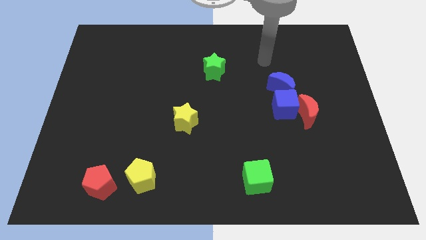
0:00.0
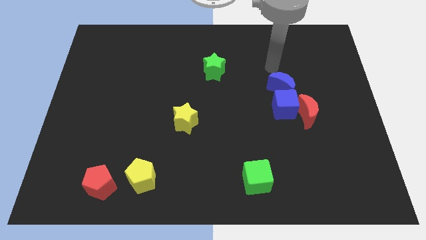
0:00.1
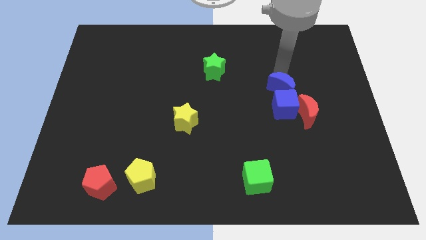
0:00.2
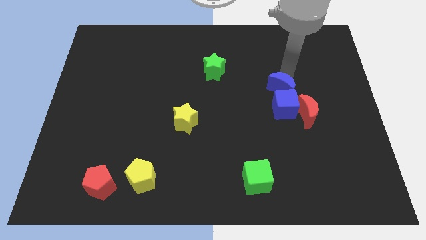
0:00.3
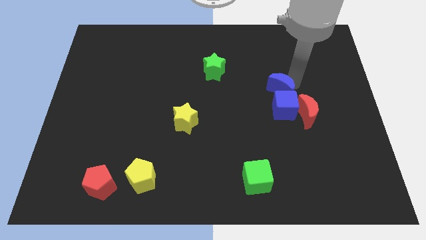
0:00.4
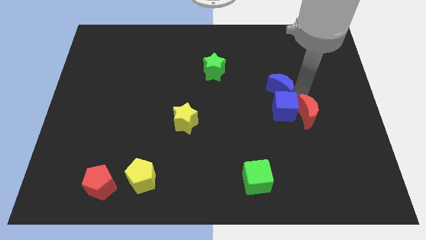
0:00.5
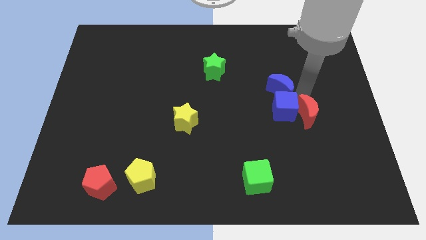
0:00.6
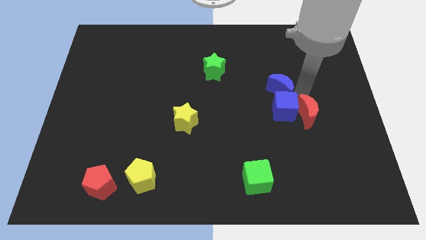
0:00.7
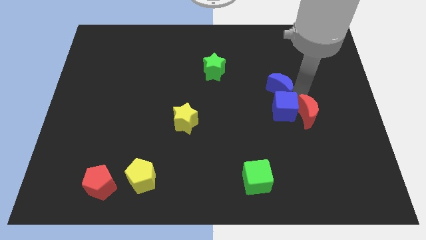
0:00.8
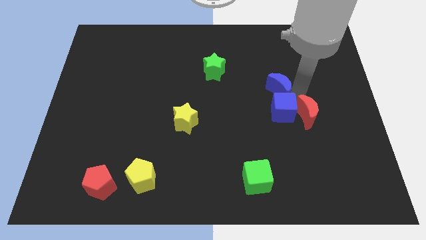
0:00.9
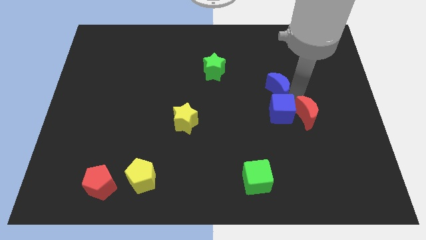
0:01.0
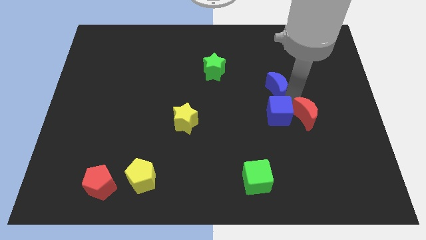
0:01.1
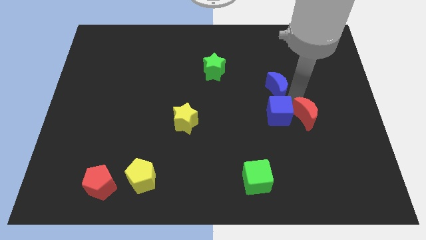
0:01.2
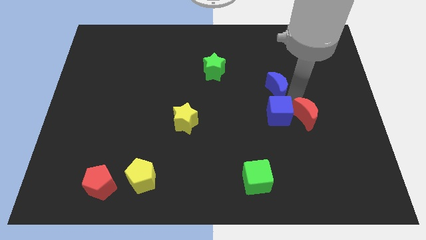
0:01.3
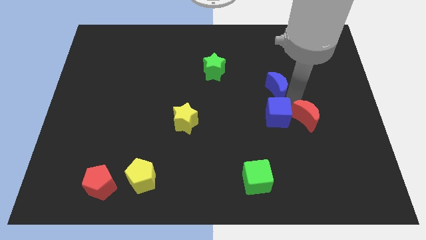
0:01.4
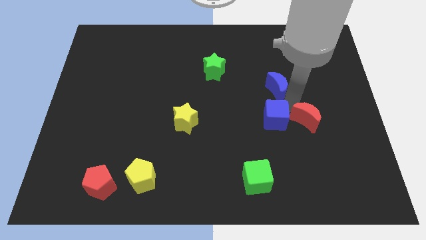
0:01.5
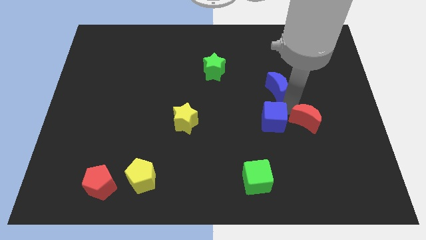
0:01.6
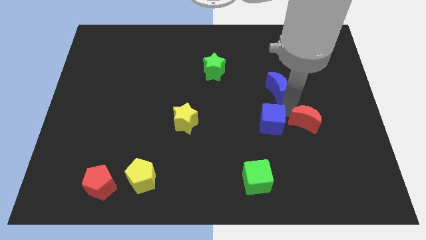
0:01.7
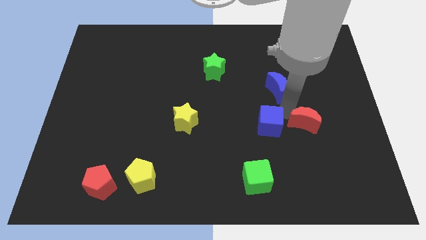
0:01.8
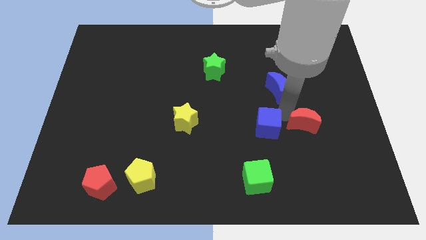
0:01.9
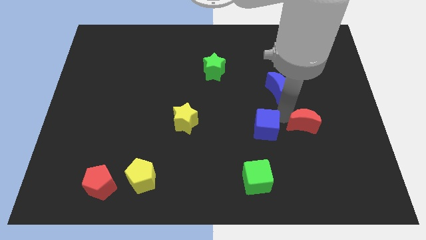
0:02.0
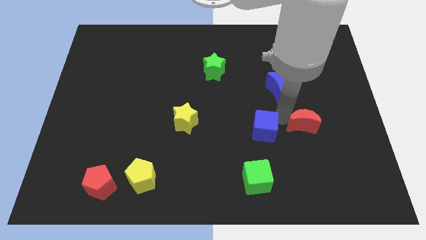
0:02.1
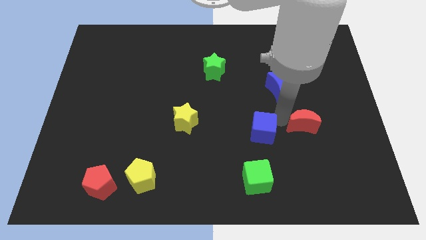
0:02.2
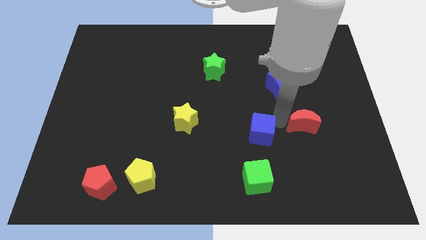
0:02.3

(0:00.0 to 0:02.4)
pull the blue cube apart from the red moon and blue moon

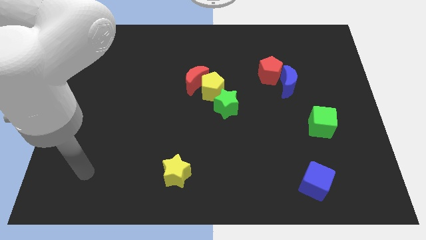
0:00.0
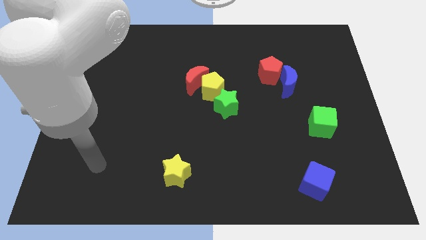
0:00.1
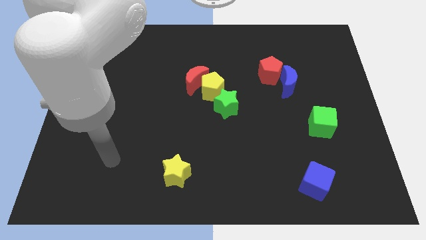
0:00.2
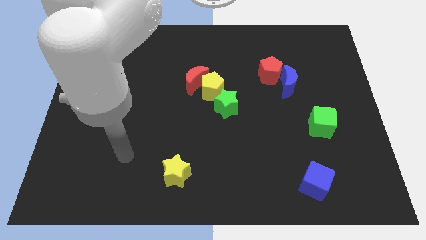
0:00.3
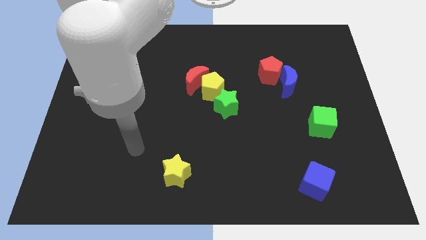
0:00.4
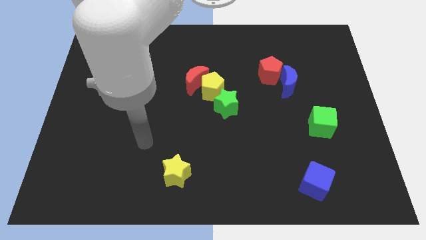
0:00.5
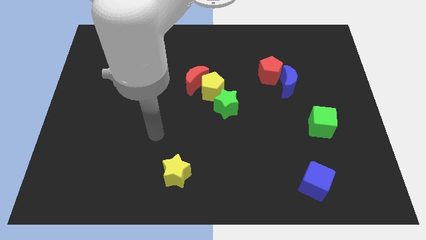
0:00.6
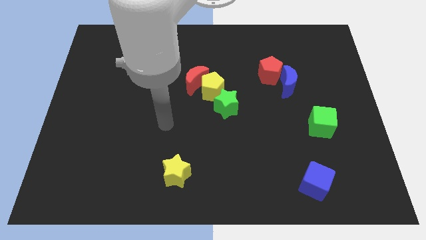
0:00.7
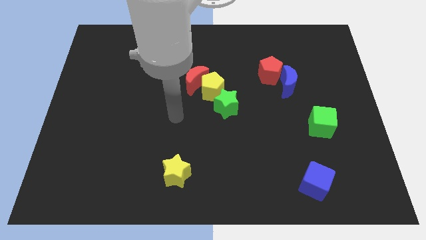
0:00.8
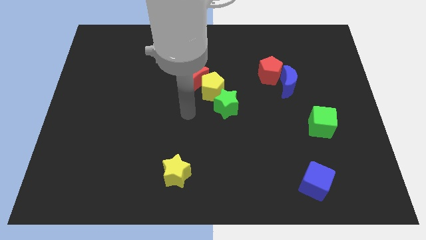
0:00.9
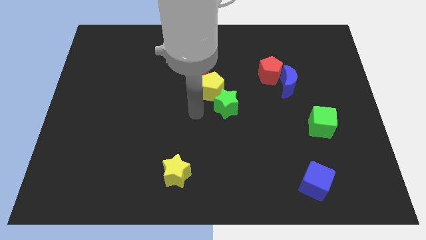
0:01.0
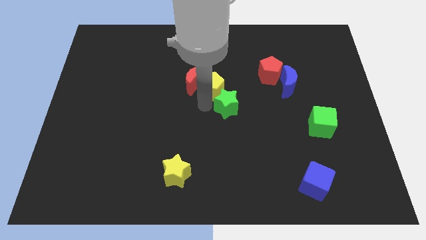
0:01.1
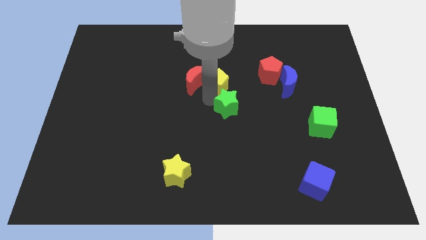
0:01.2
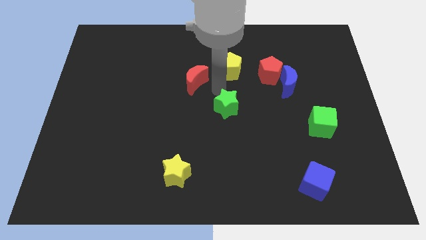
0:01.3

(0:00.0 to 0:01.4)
separate the red moon from the yellow pentagon

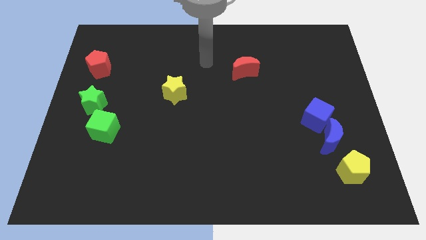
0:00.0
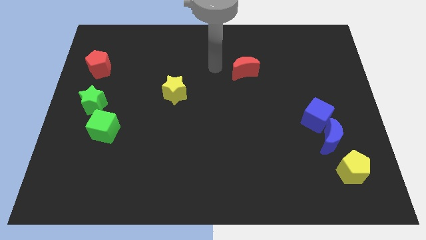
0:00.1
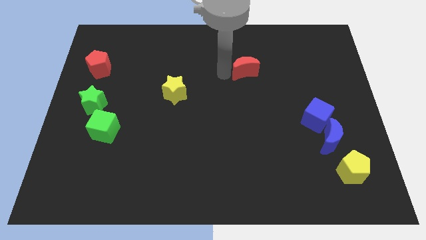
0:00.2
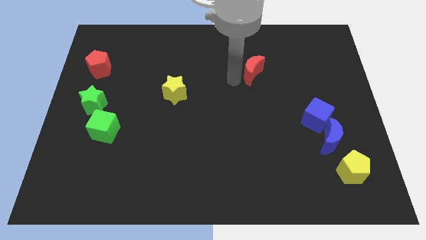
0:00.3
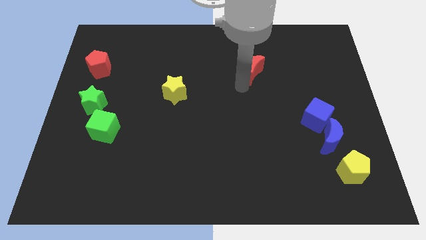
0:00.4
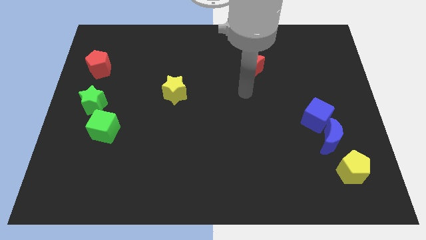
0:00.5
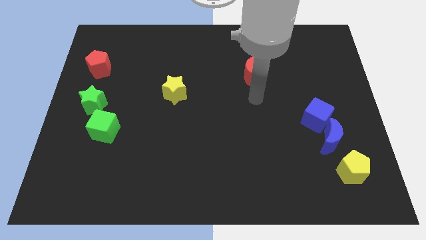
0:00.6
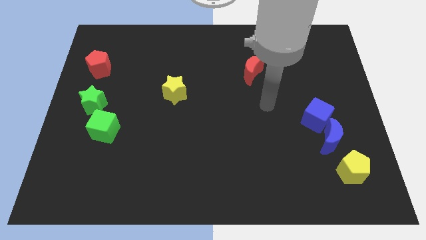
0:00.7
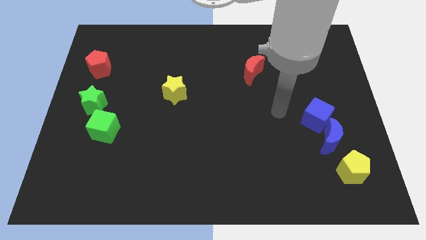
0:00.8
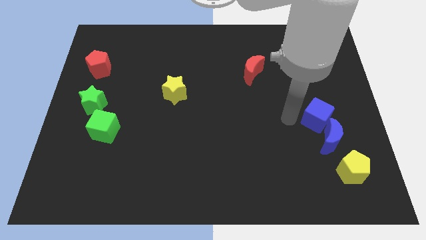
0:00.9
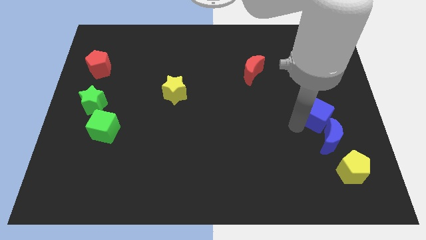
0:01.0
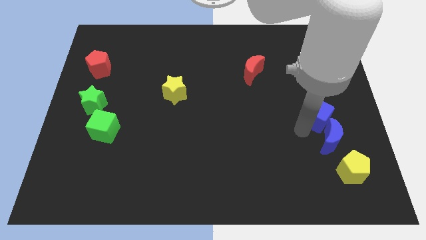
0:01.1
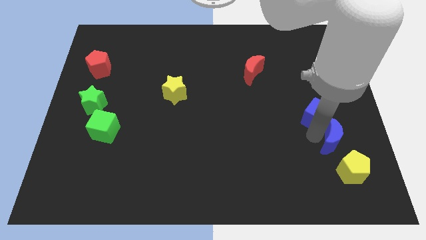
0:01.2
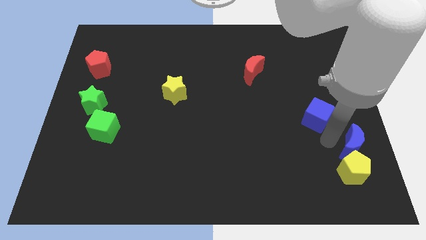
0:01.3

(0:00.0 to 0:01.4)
move the blue cube away from the blue moon

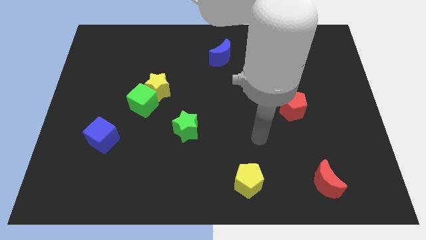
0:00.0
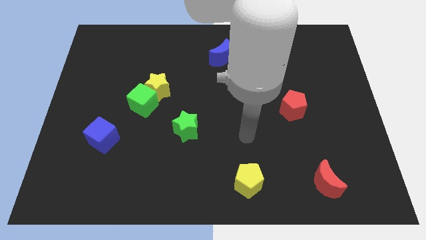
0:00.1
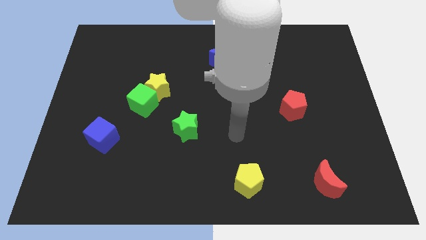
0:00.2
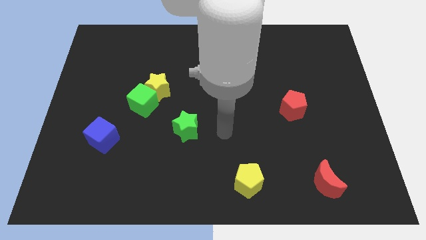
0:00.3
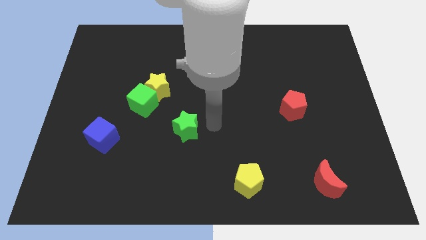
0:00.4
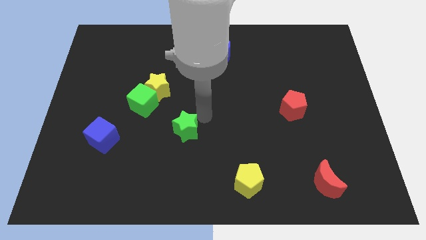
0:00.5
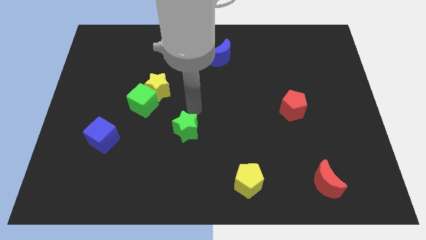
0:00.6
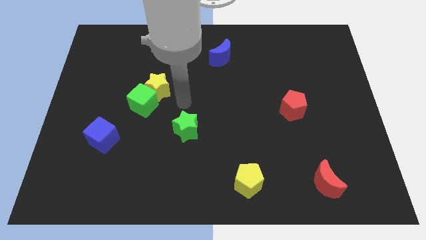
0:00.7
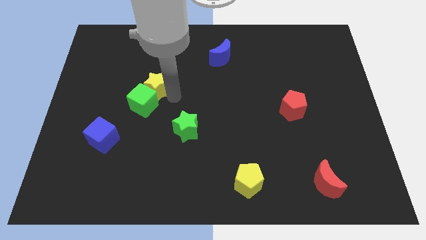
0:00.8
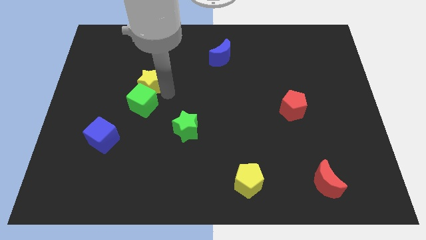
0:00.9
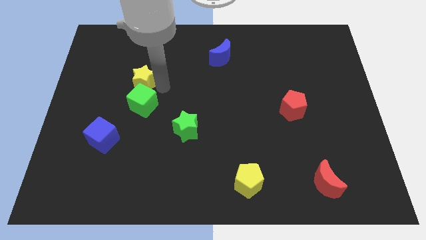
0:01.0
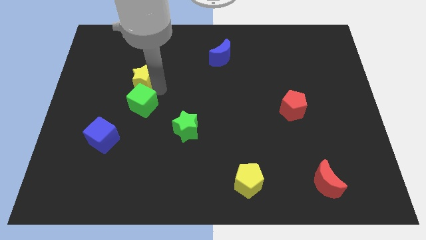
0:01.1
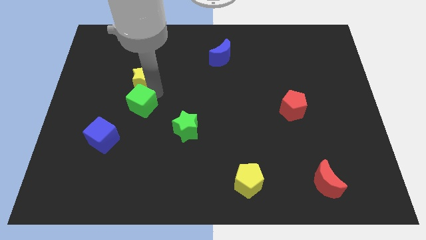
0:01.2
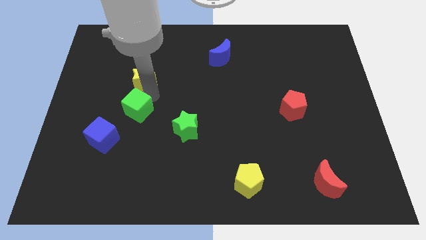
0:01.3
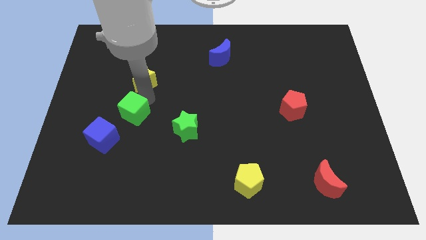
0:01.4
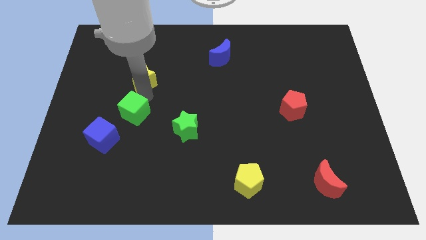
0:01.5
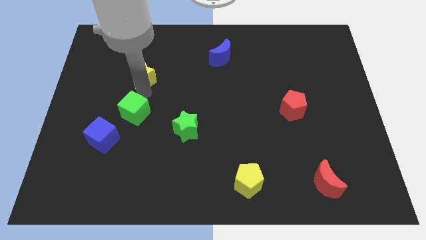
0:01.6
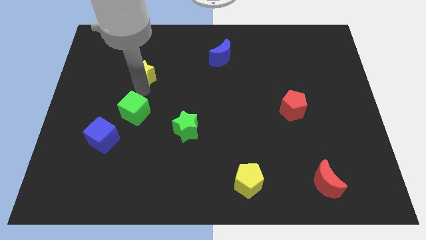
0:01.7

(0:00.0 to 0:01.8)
separate the green cube from the yellow star

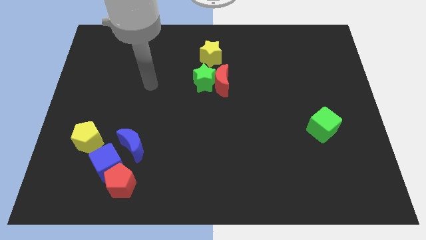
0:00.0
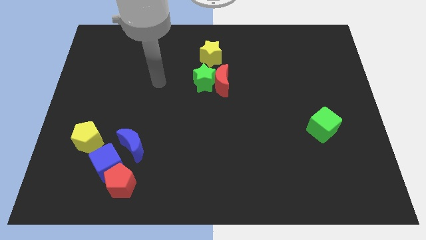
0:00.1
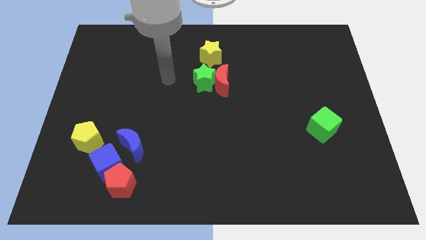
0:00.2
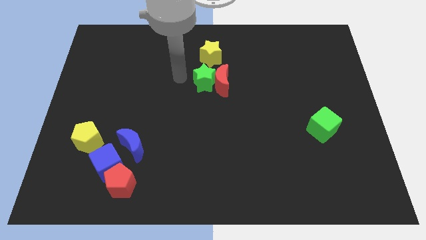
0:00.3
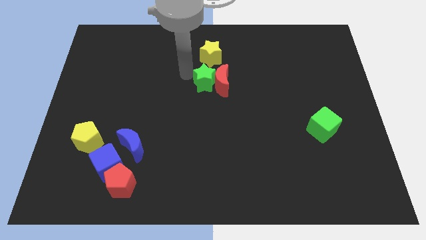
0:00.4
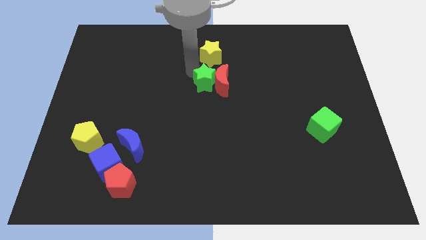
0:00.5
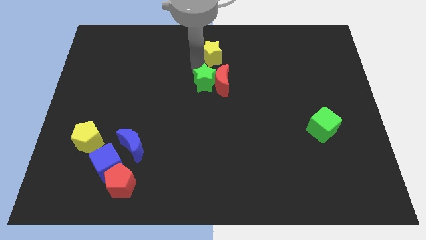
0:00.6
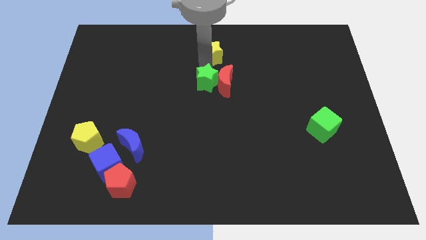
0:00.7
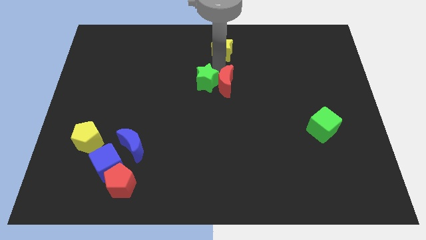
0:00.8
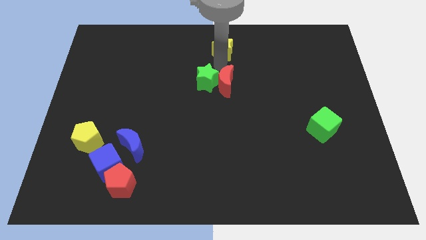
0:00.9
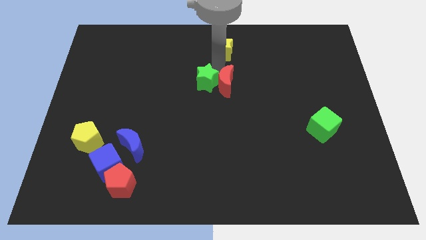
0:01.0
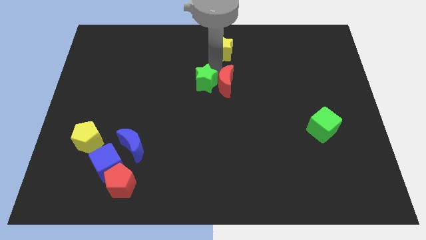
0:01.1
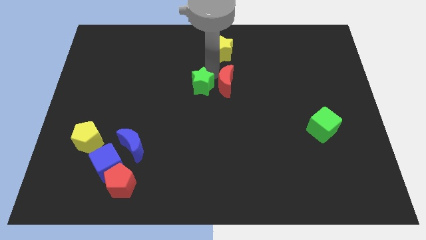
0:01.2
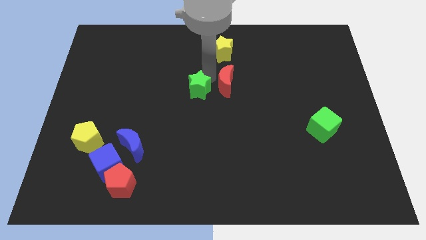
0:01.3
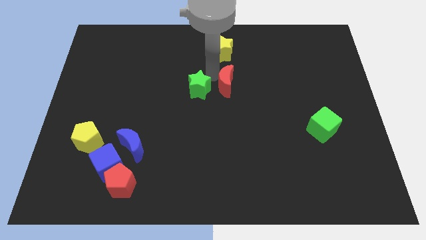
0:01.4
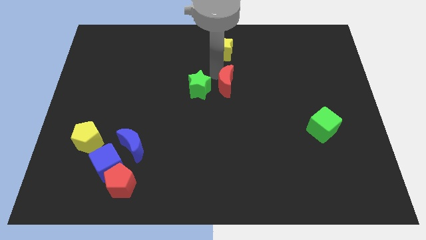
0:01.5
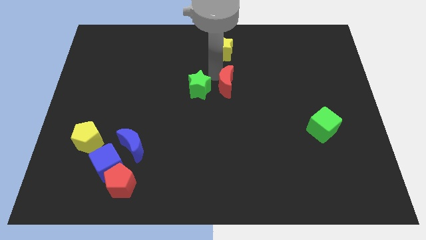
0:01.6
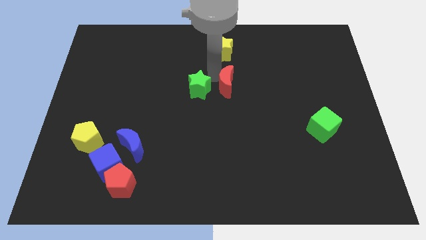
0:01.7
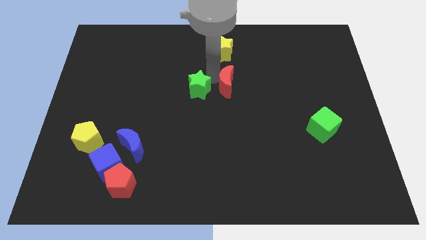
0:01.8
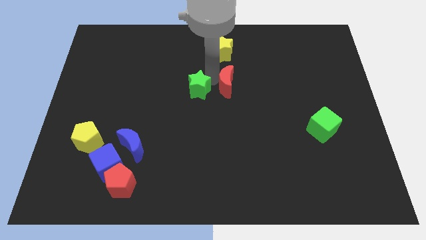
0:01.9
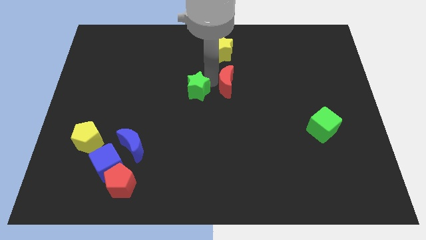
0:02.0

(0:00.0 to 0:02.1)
separate the green star from the red moon and yellow star

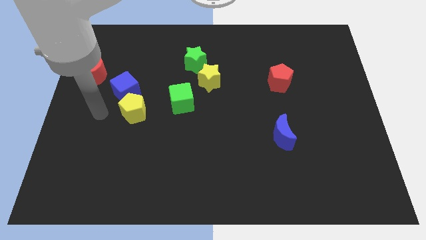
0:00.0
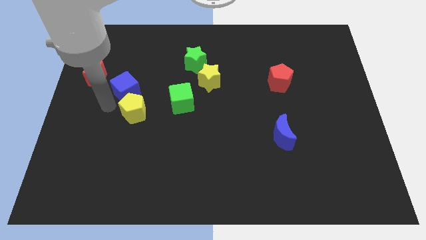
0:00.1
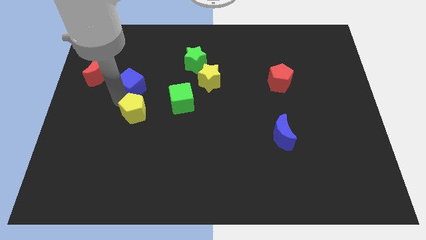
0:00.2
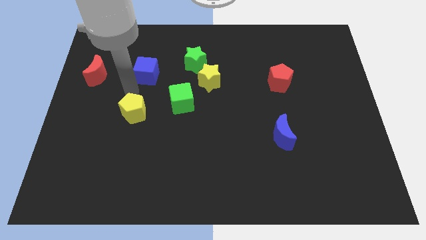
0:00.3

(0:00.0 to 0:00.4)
pull the yellow pentagon apart from the blue cube
